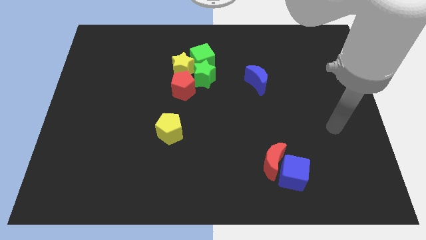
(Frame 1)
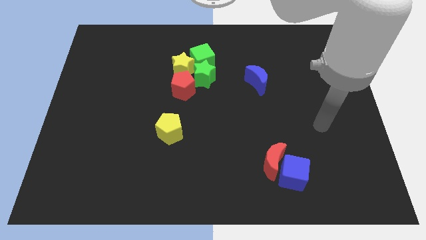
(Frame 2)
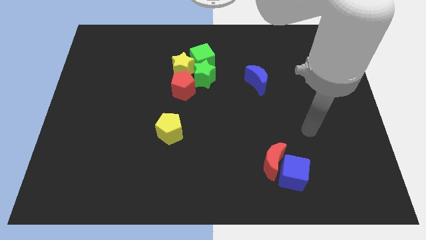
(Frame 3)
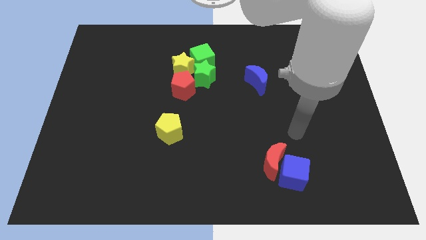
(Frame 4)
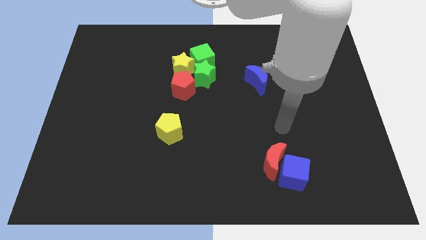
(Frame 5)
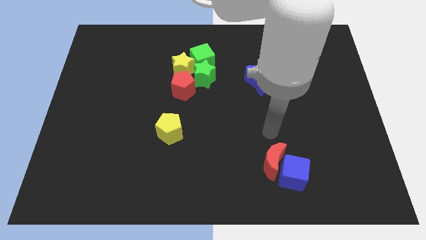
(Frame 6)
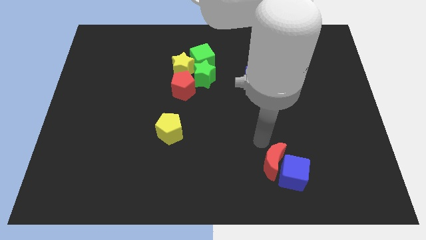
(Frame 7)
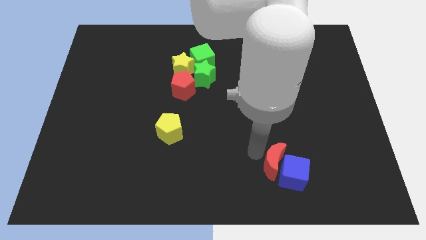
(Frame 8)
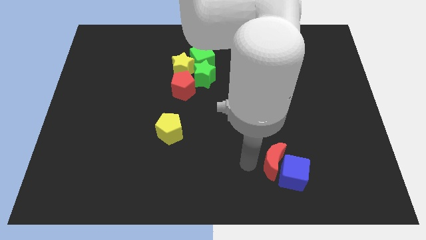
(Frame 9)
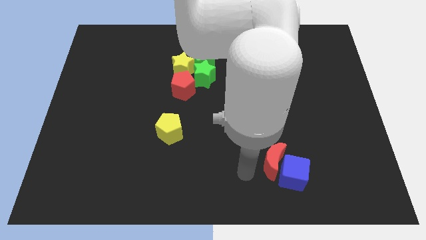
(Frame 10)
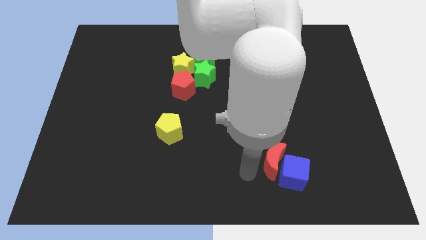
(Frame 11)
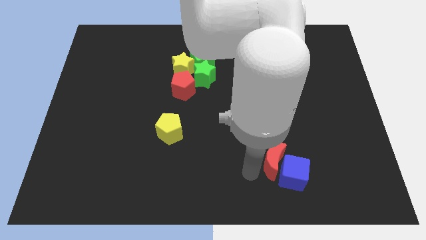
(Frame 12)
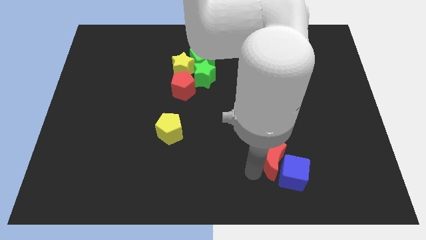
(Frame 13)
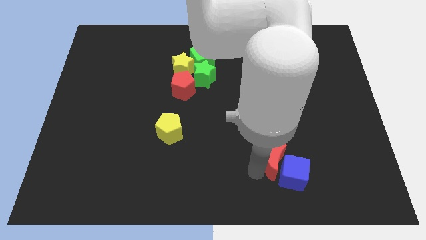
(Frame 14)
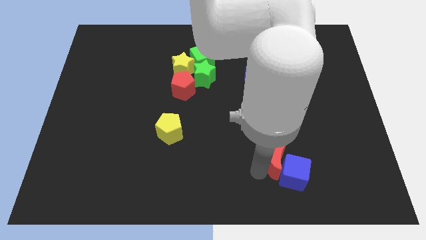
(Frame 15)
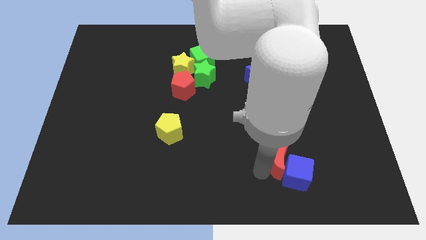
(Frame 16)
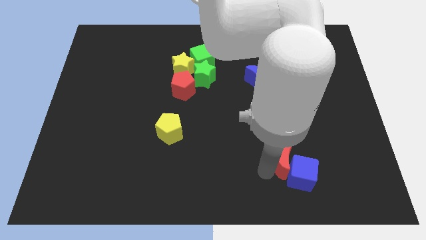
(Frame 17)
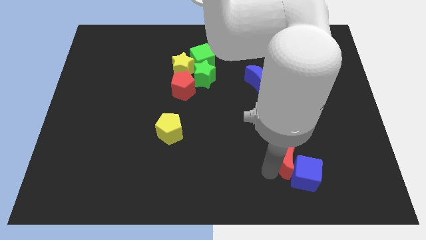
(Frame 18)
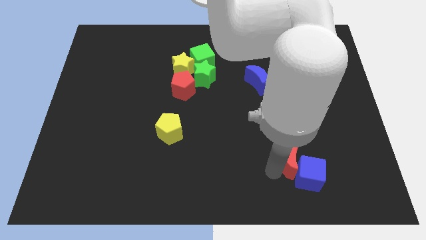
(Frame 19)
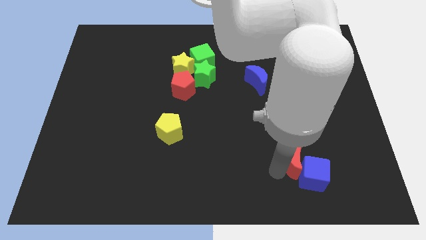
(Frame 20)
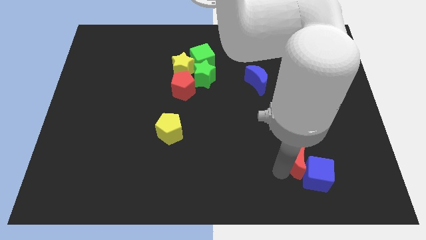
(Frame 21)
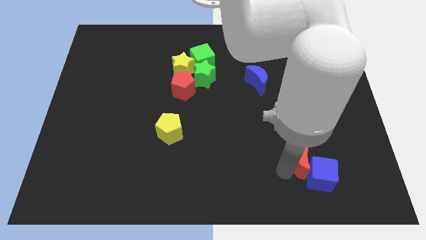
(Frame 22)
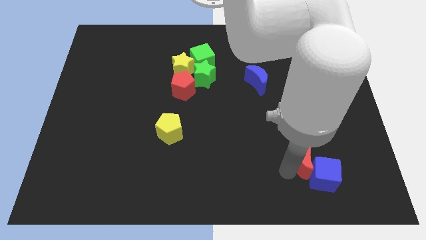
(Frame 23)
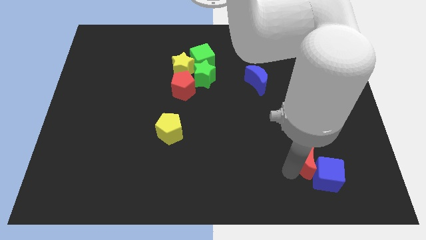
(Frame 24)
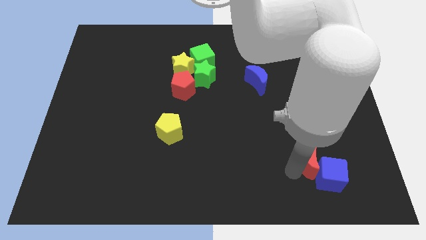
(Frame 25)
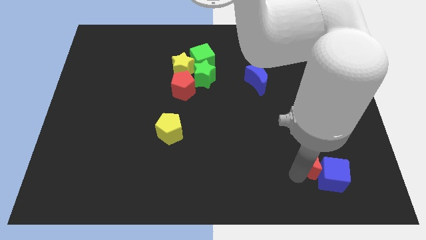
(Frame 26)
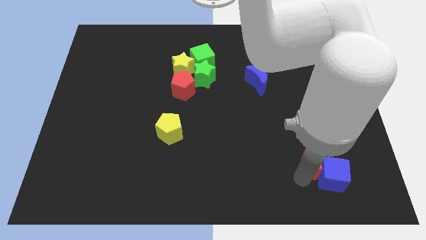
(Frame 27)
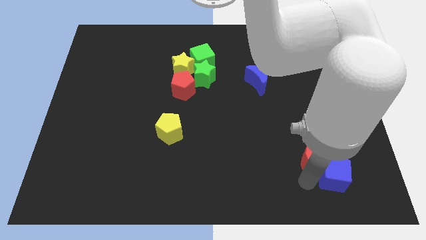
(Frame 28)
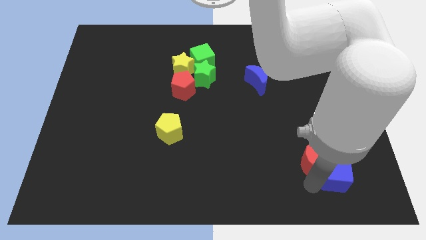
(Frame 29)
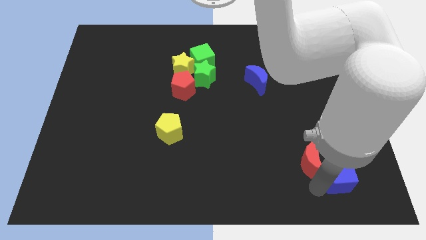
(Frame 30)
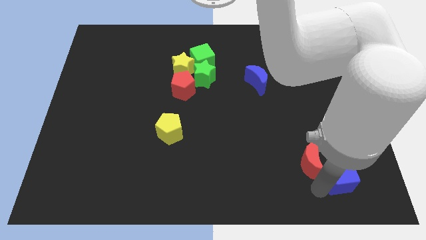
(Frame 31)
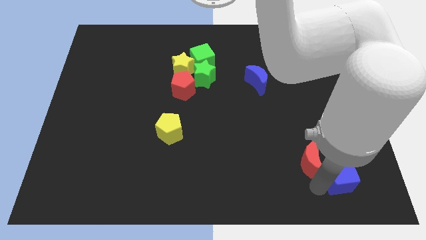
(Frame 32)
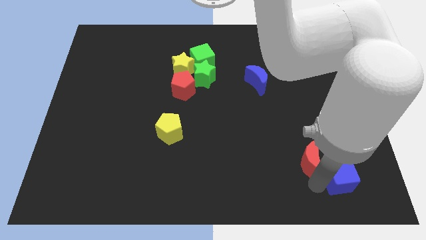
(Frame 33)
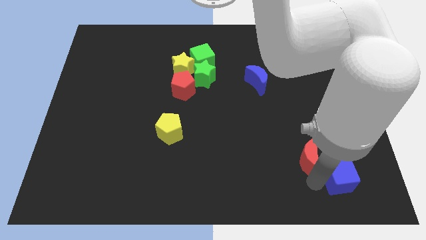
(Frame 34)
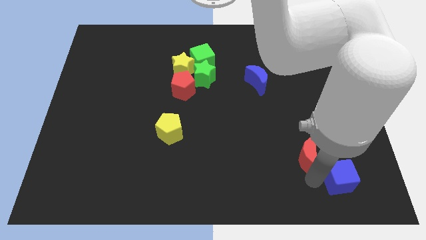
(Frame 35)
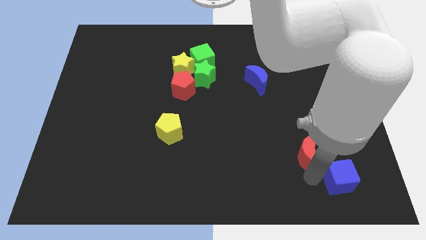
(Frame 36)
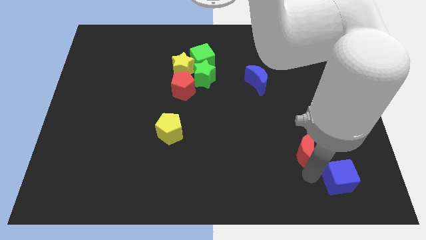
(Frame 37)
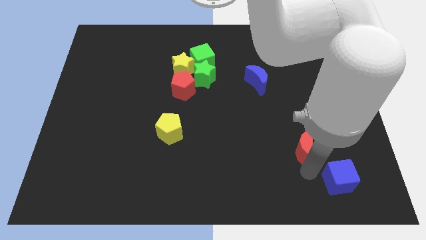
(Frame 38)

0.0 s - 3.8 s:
push the red moon somewhat up and then to the right

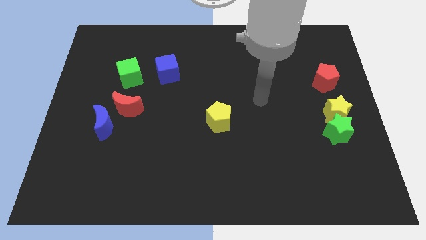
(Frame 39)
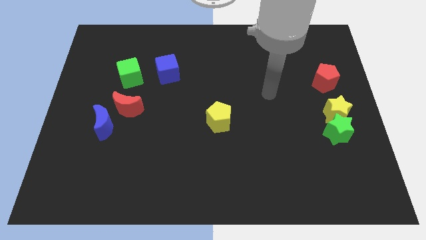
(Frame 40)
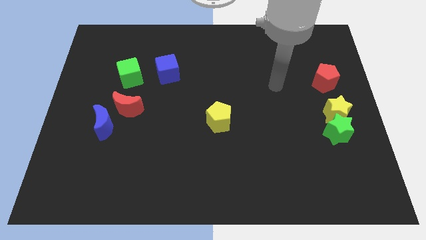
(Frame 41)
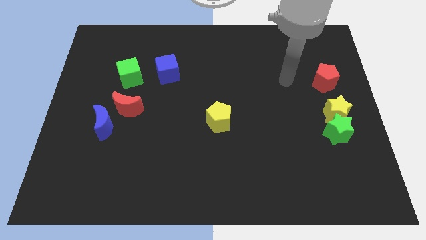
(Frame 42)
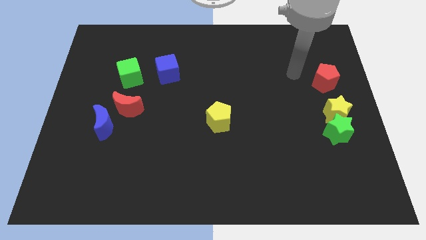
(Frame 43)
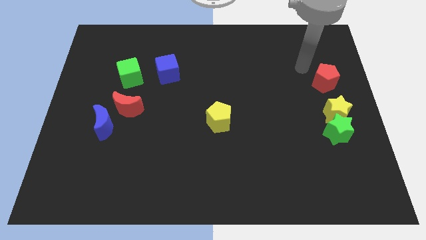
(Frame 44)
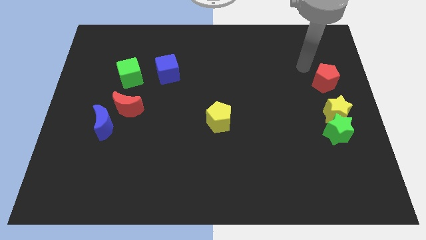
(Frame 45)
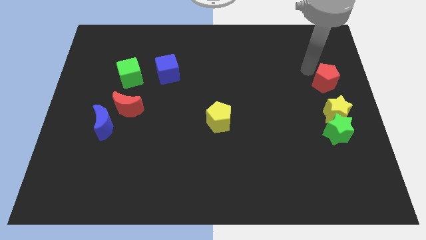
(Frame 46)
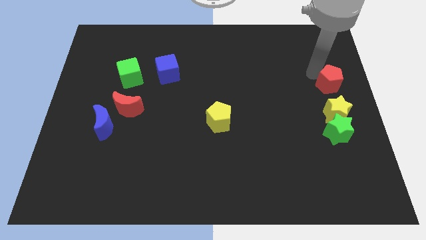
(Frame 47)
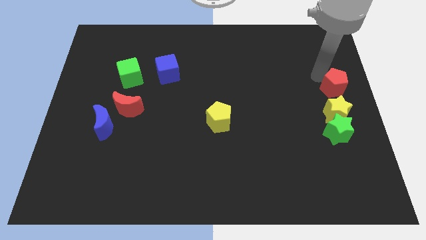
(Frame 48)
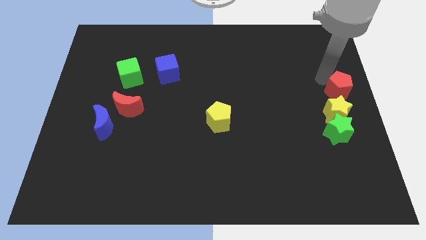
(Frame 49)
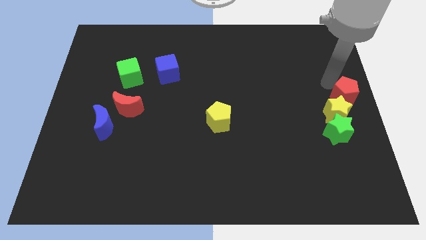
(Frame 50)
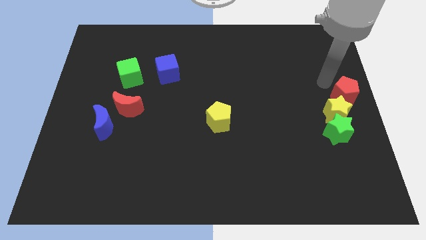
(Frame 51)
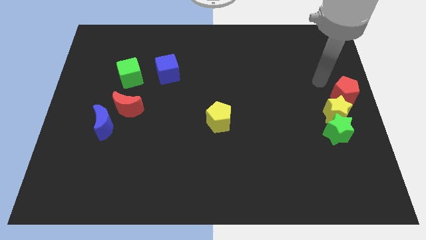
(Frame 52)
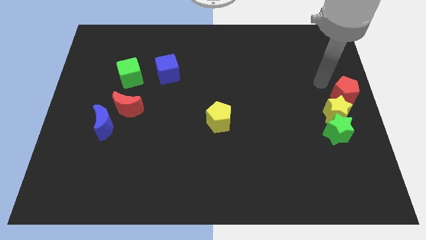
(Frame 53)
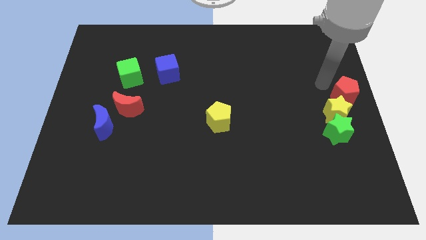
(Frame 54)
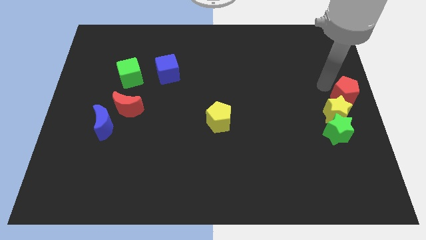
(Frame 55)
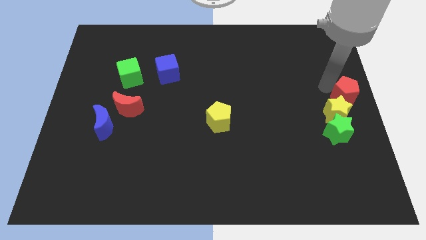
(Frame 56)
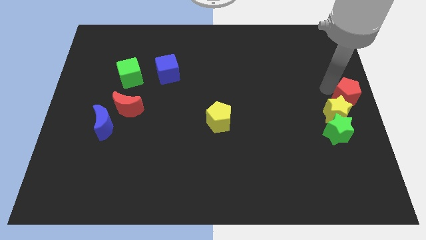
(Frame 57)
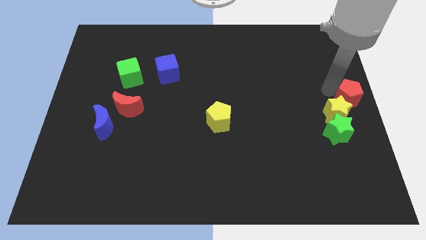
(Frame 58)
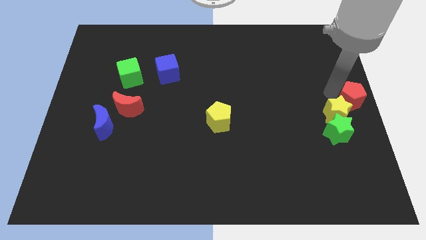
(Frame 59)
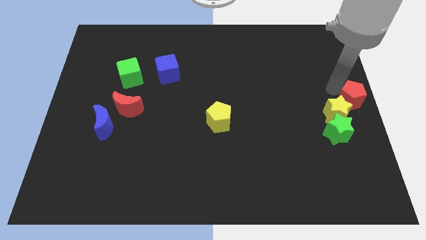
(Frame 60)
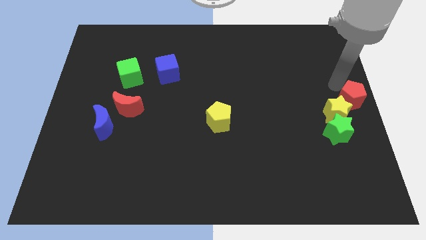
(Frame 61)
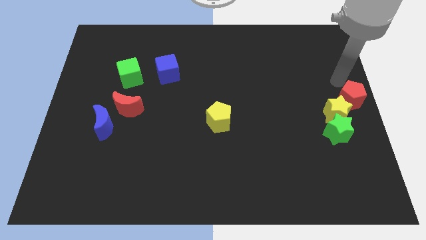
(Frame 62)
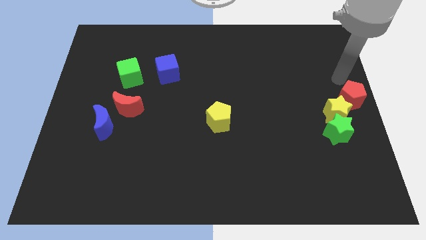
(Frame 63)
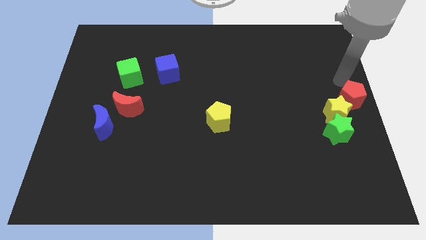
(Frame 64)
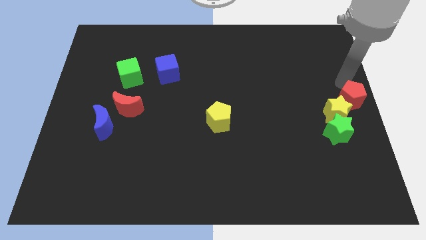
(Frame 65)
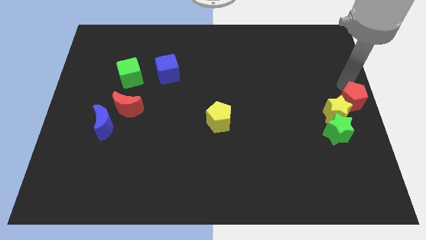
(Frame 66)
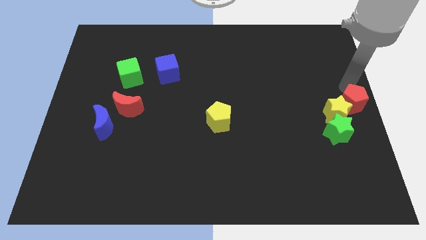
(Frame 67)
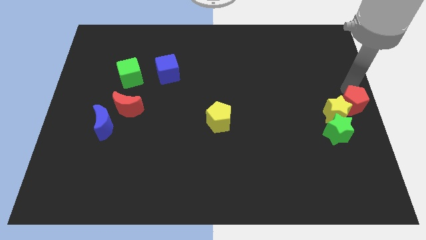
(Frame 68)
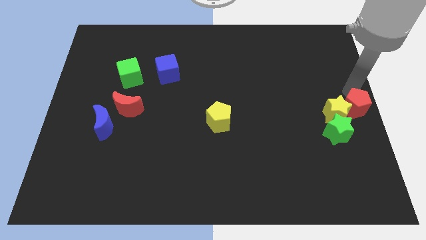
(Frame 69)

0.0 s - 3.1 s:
slightly slide the red pentagon downwards

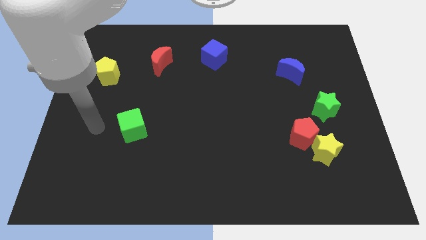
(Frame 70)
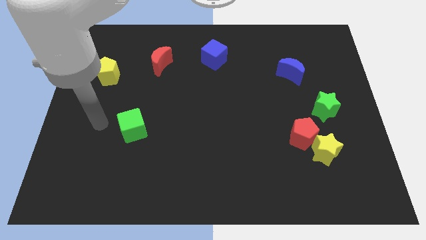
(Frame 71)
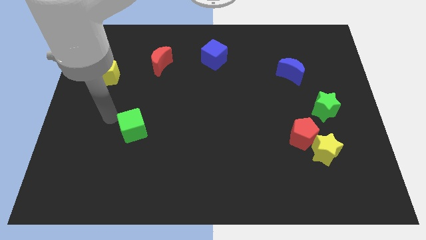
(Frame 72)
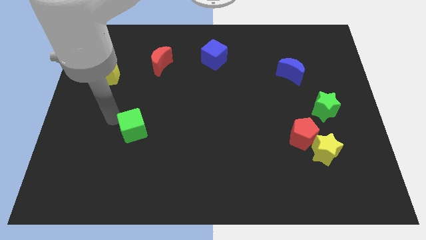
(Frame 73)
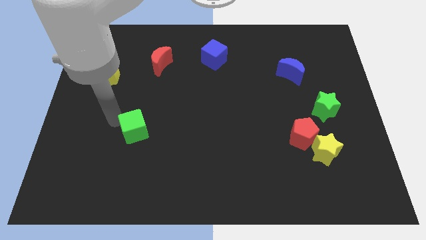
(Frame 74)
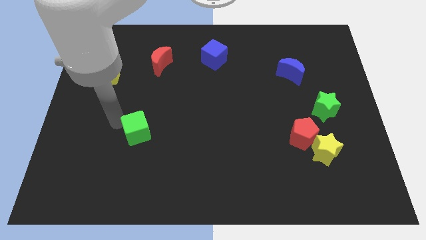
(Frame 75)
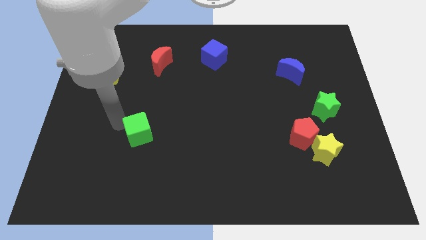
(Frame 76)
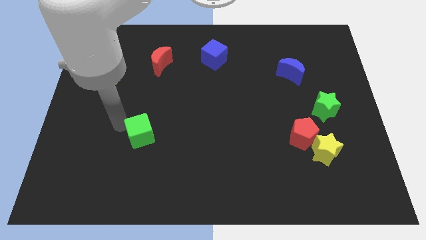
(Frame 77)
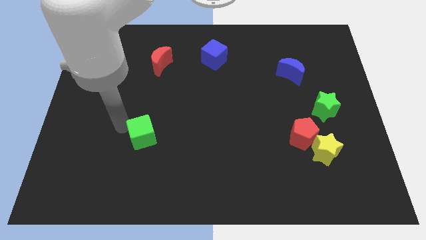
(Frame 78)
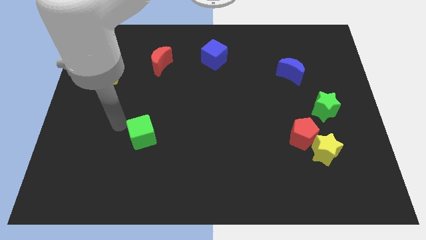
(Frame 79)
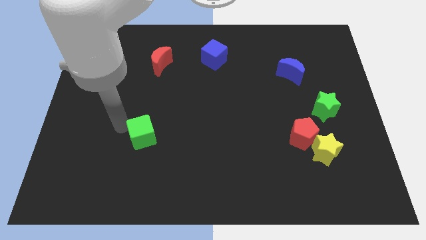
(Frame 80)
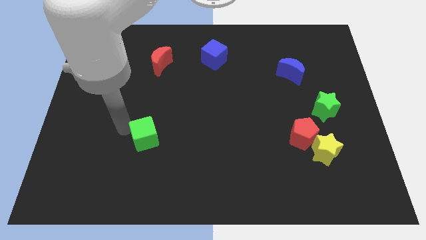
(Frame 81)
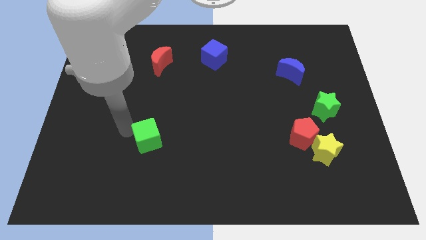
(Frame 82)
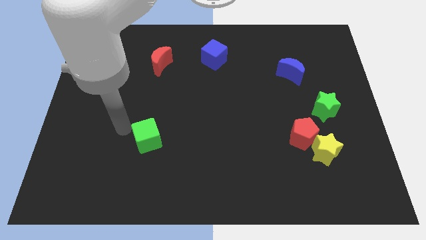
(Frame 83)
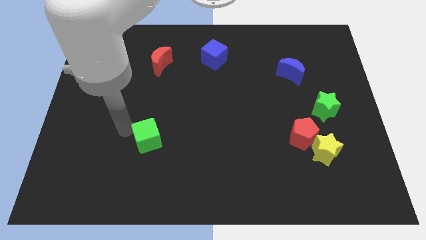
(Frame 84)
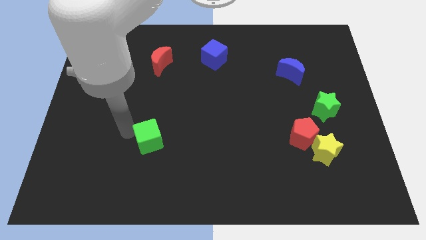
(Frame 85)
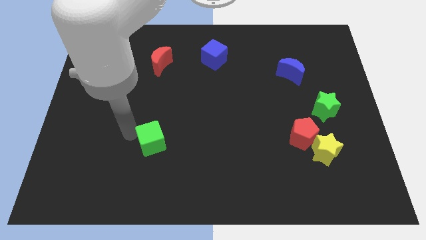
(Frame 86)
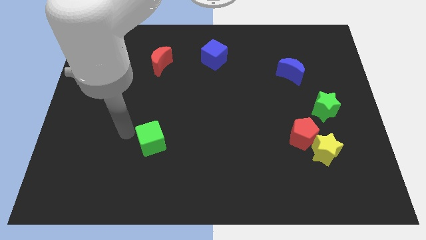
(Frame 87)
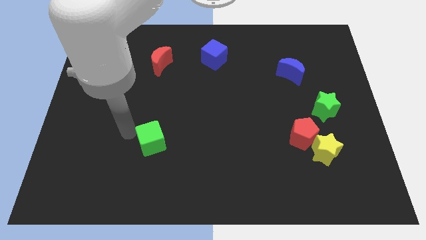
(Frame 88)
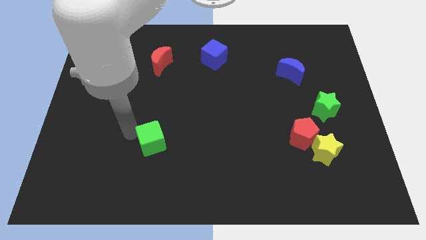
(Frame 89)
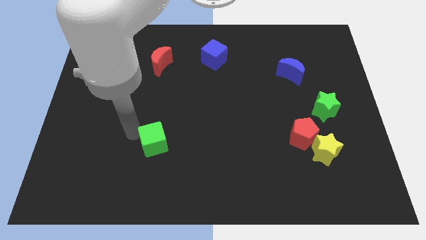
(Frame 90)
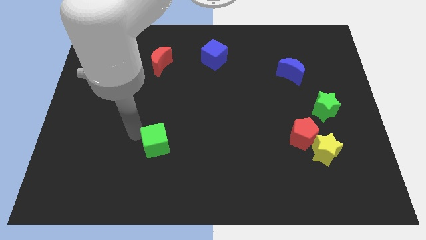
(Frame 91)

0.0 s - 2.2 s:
slightly push the green cube diagonally downwards and right
